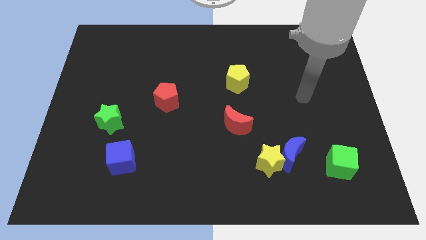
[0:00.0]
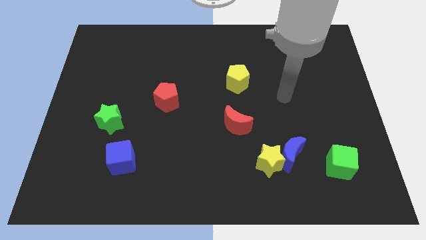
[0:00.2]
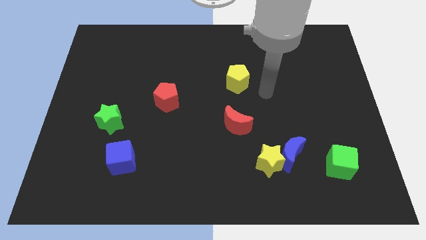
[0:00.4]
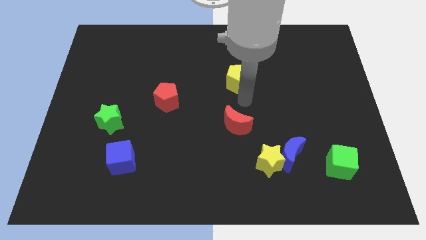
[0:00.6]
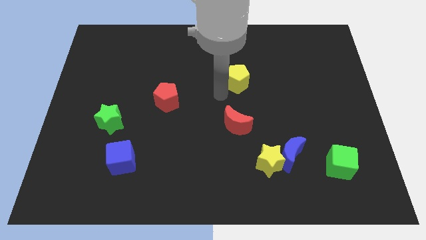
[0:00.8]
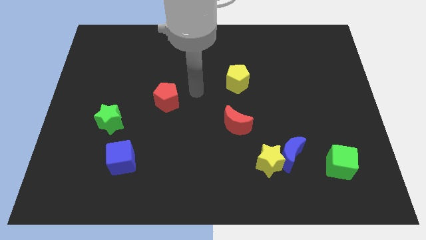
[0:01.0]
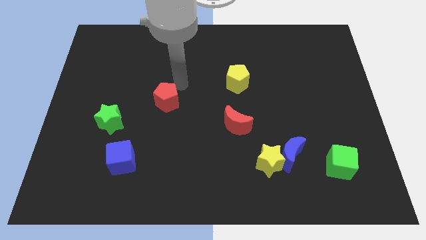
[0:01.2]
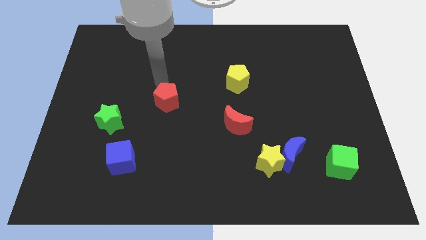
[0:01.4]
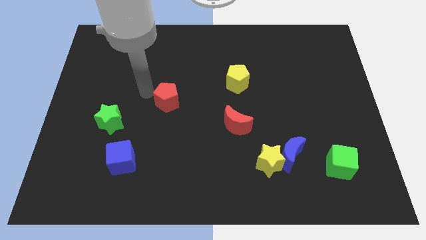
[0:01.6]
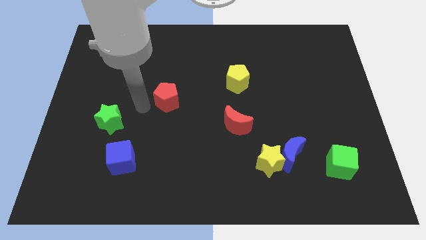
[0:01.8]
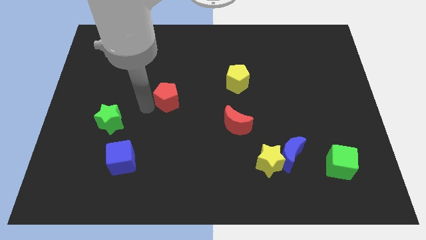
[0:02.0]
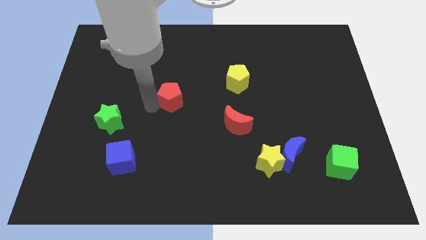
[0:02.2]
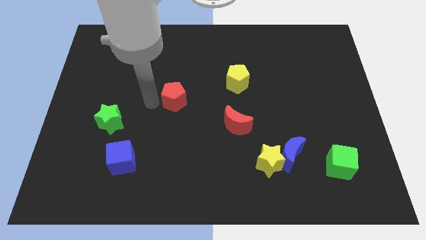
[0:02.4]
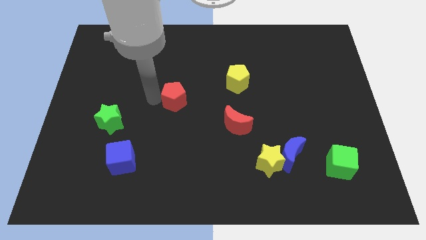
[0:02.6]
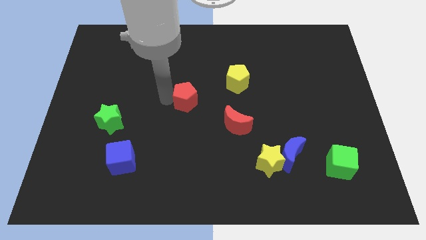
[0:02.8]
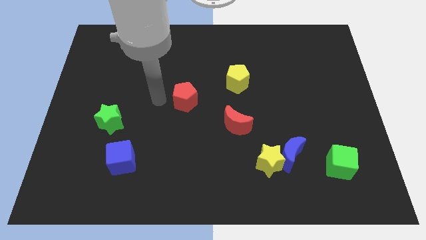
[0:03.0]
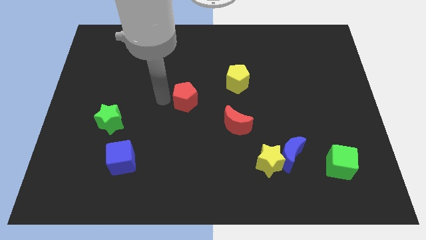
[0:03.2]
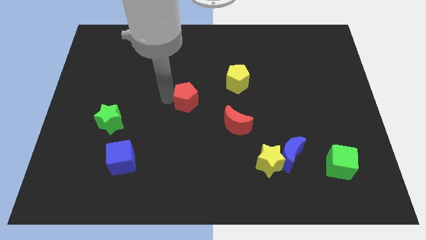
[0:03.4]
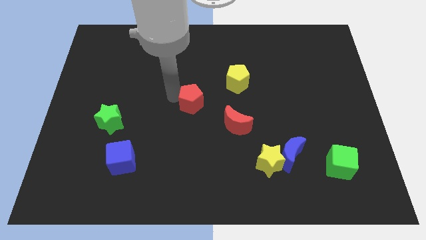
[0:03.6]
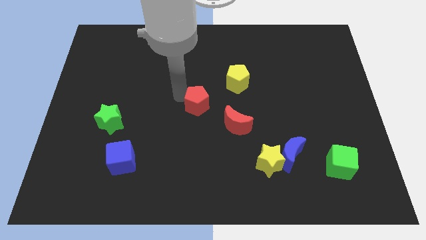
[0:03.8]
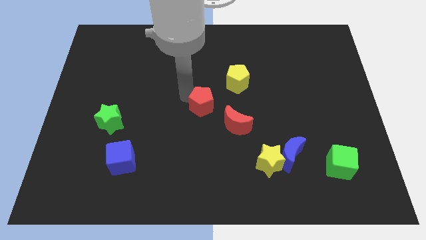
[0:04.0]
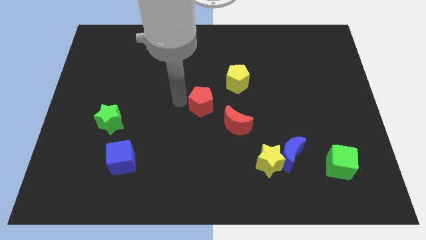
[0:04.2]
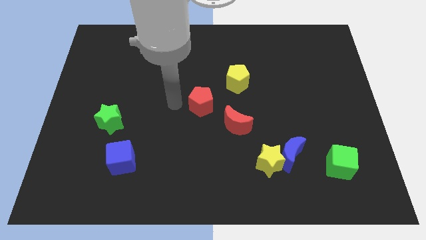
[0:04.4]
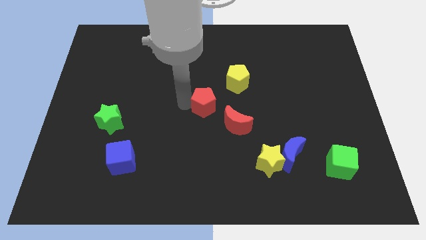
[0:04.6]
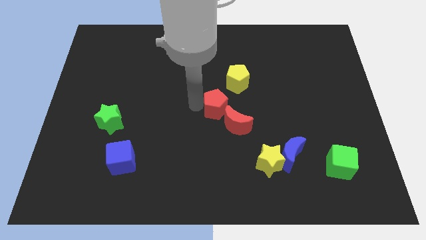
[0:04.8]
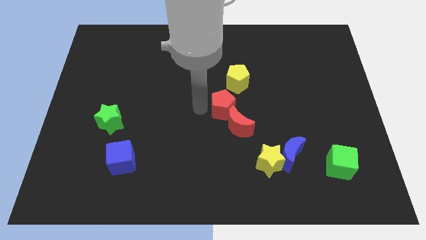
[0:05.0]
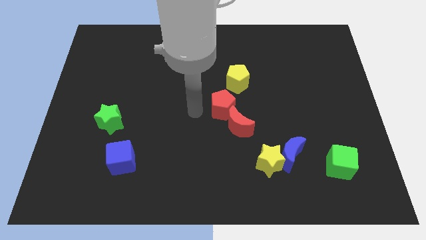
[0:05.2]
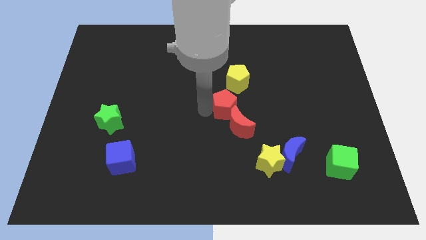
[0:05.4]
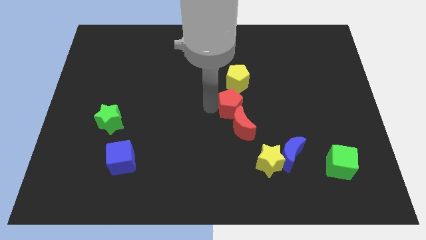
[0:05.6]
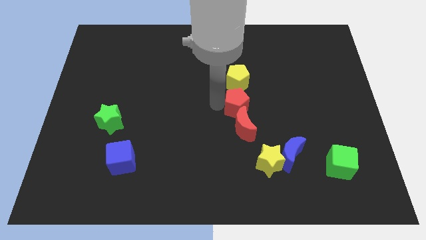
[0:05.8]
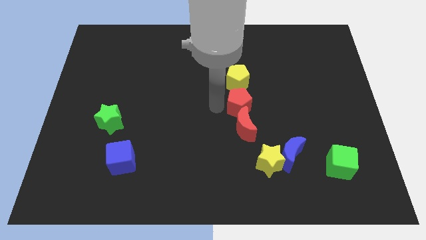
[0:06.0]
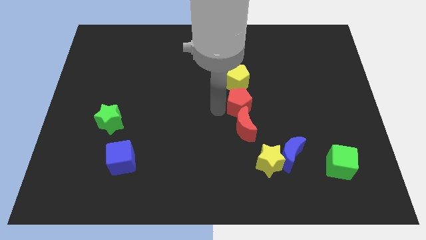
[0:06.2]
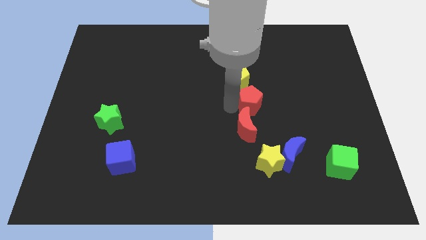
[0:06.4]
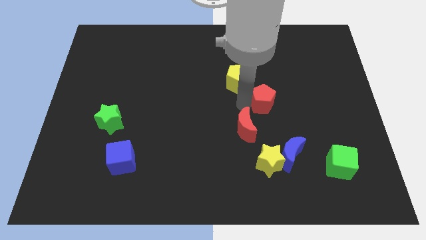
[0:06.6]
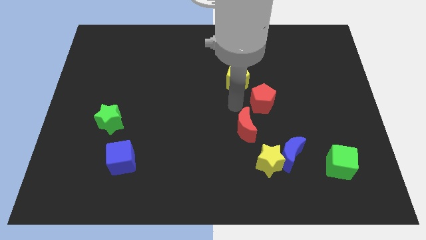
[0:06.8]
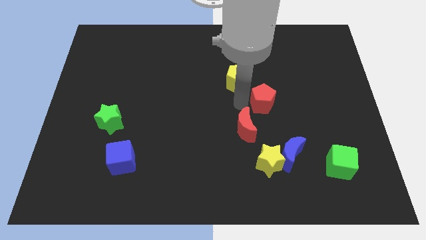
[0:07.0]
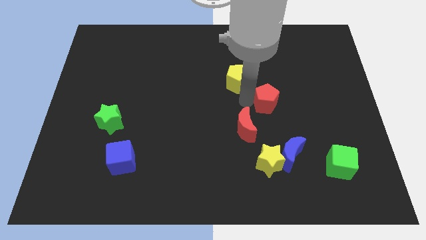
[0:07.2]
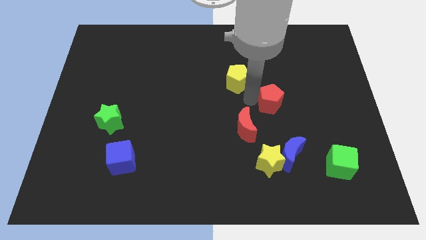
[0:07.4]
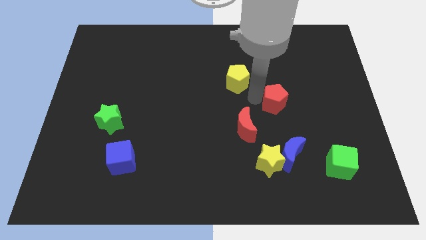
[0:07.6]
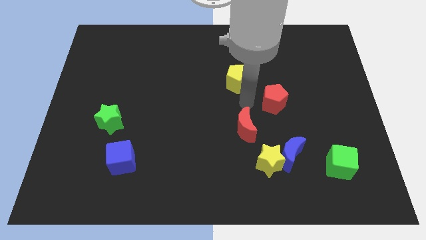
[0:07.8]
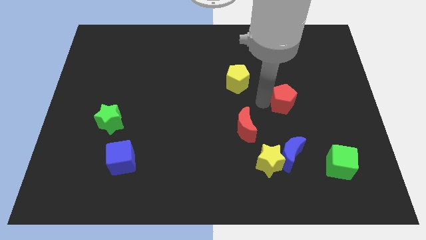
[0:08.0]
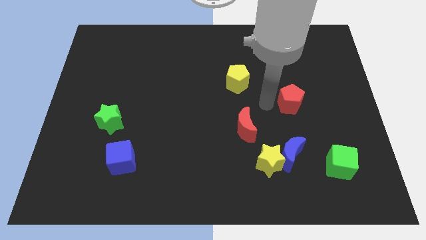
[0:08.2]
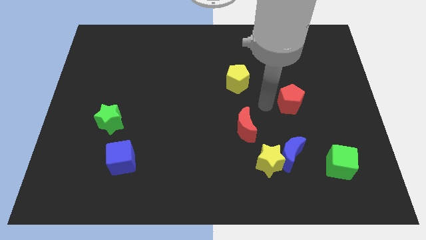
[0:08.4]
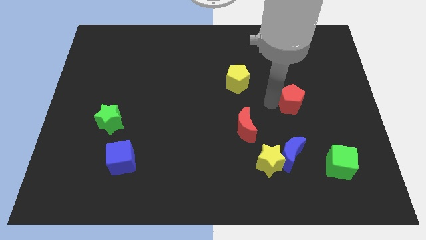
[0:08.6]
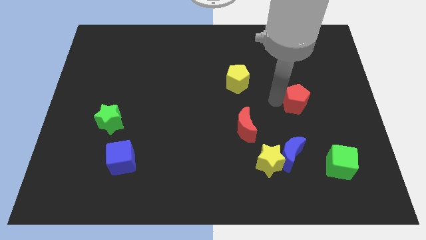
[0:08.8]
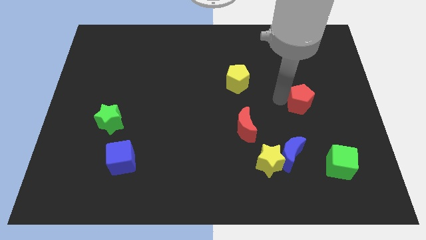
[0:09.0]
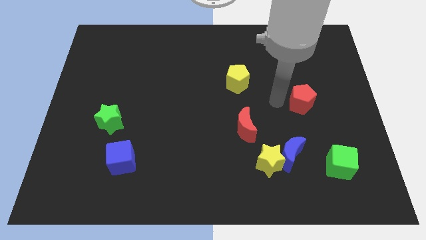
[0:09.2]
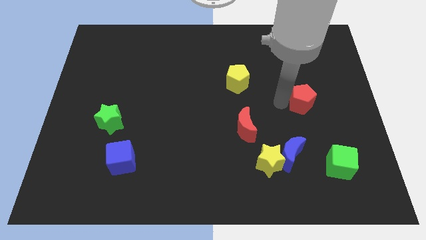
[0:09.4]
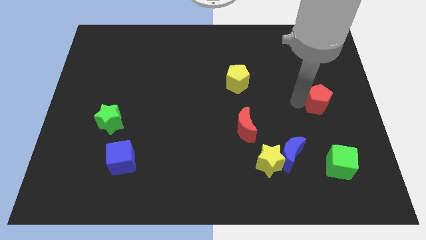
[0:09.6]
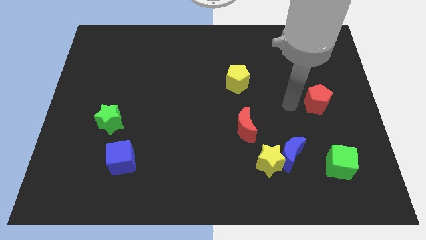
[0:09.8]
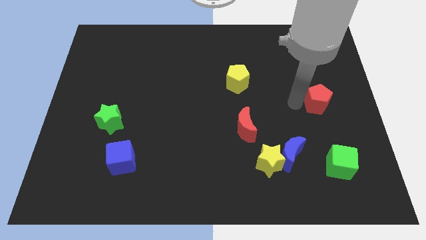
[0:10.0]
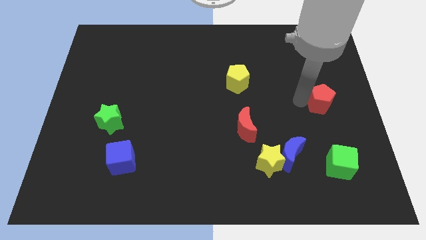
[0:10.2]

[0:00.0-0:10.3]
move the red pentagon to the right side of the board
